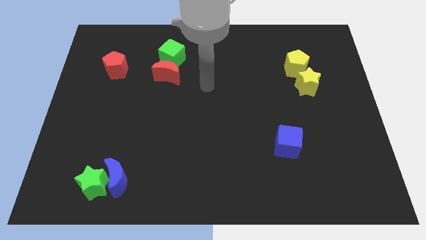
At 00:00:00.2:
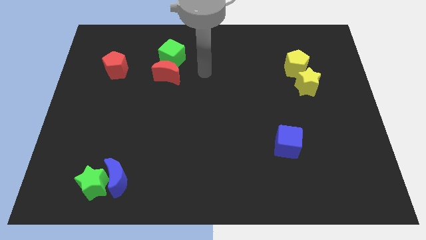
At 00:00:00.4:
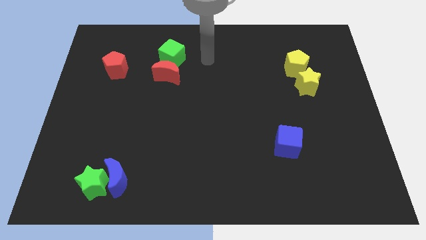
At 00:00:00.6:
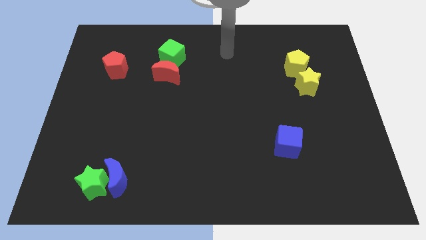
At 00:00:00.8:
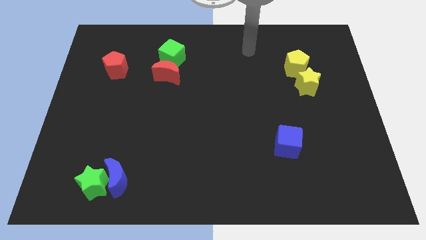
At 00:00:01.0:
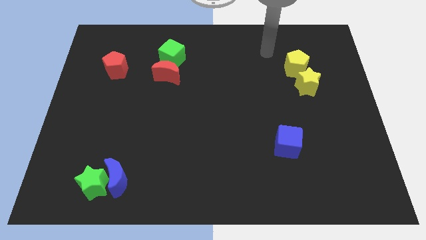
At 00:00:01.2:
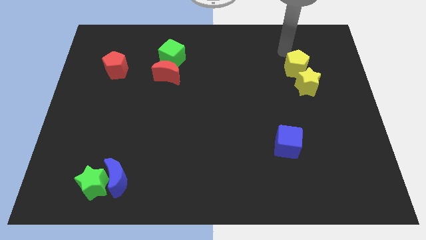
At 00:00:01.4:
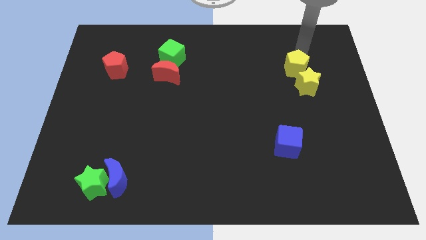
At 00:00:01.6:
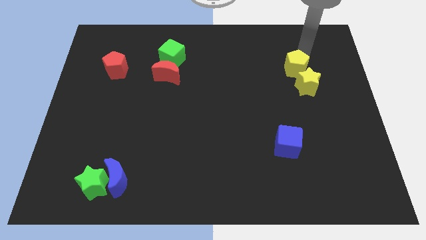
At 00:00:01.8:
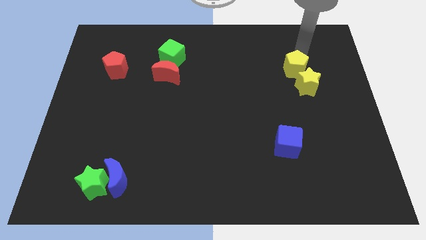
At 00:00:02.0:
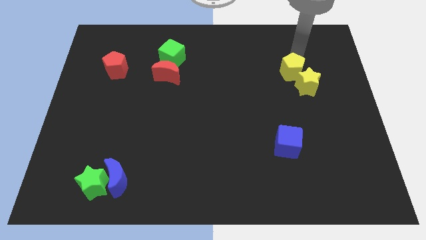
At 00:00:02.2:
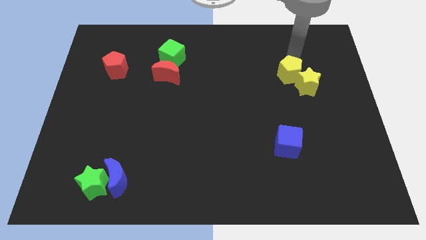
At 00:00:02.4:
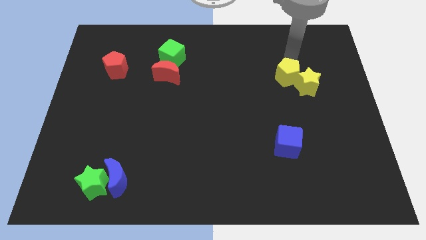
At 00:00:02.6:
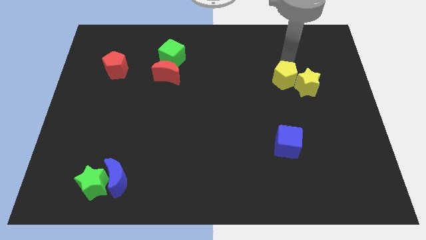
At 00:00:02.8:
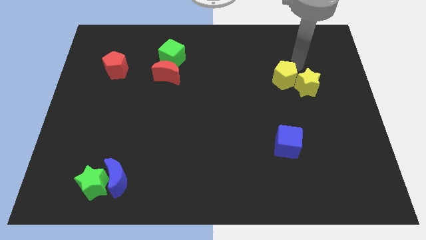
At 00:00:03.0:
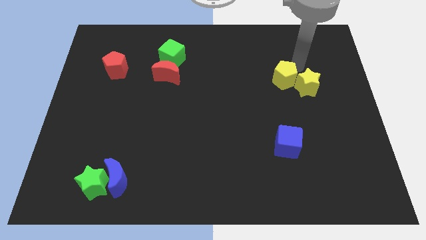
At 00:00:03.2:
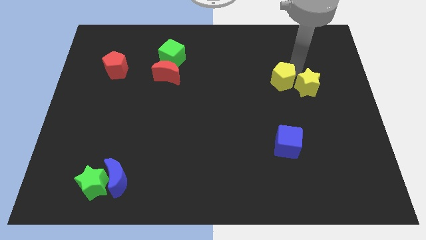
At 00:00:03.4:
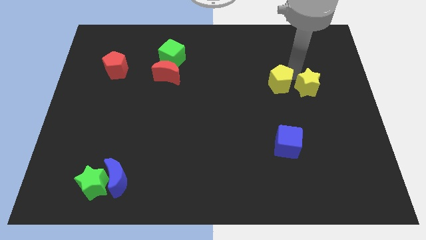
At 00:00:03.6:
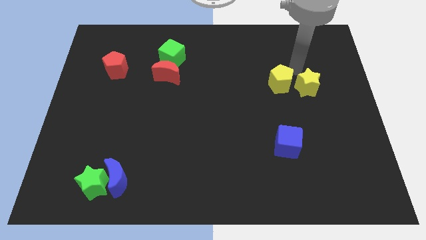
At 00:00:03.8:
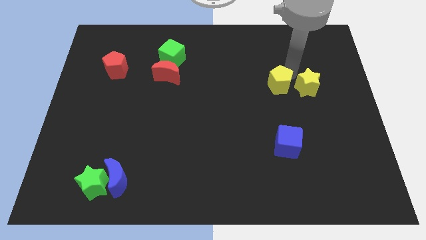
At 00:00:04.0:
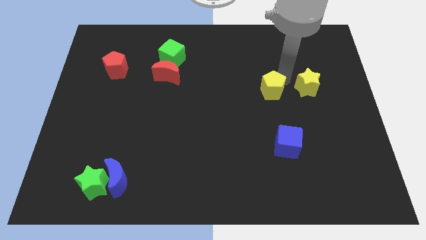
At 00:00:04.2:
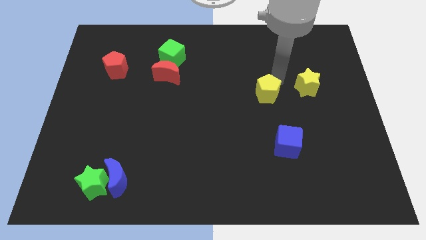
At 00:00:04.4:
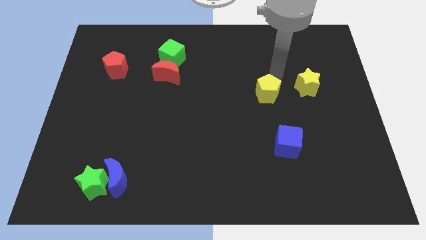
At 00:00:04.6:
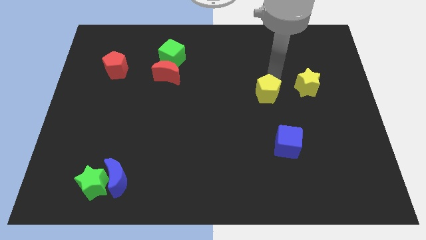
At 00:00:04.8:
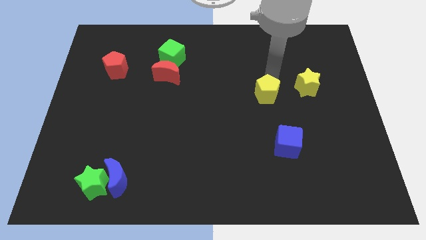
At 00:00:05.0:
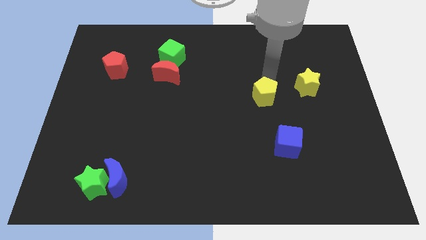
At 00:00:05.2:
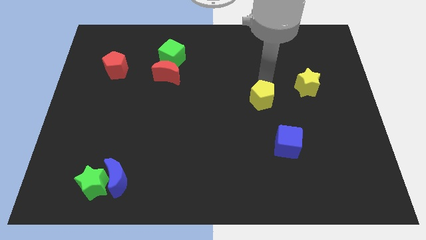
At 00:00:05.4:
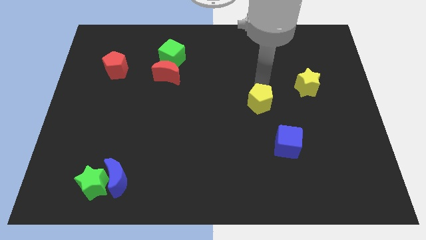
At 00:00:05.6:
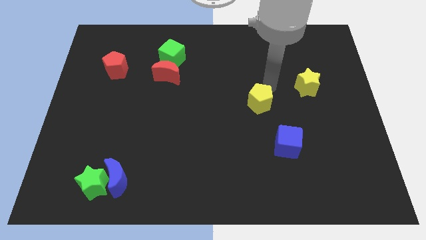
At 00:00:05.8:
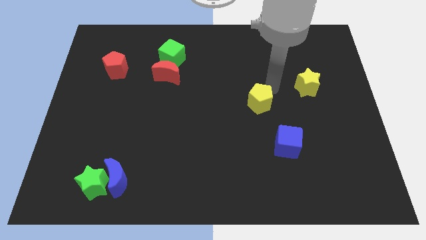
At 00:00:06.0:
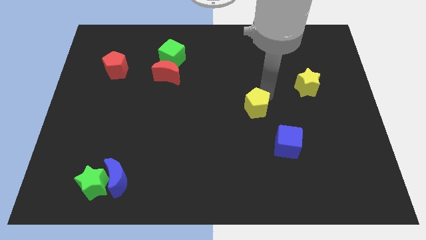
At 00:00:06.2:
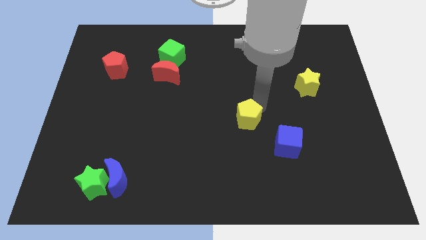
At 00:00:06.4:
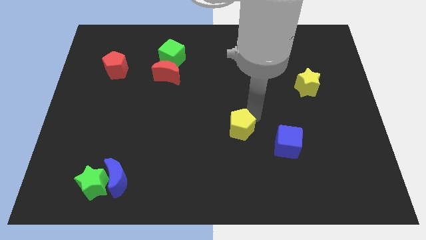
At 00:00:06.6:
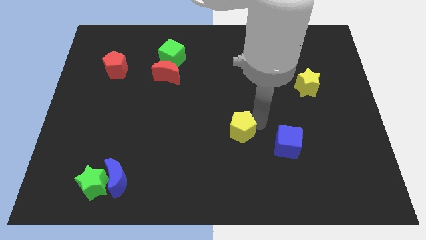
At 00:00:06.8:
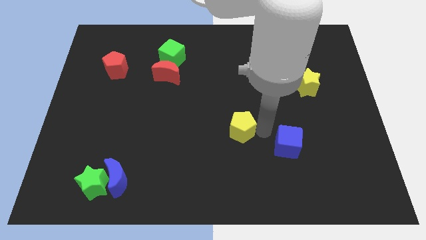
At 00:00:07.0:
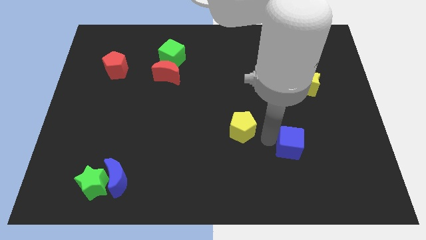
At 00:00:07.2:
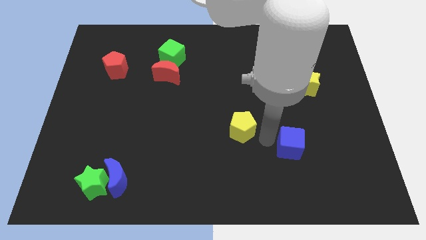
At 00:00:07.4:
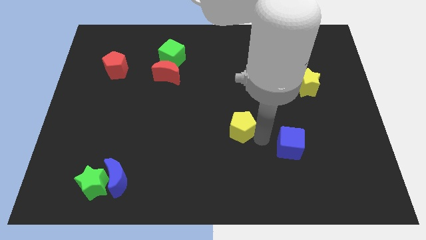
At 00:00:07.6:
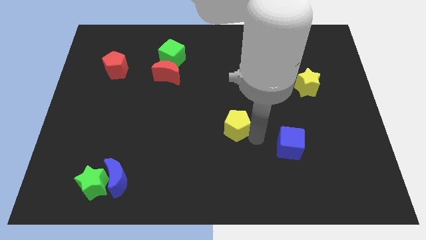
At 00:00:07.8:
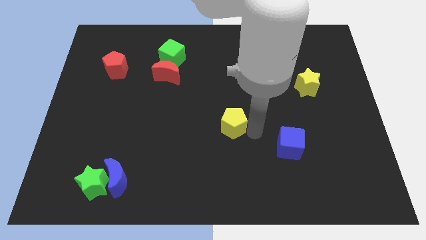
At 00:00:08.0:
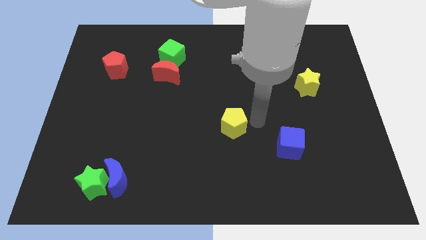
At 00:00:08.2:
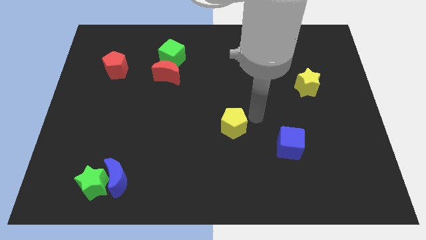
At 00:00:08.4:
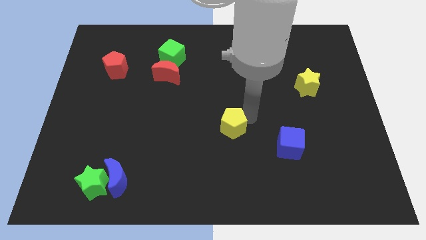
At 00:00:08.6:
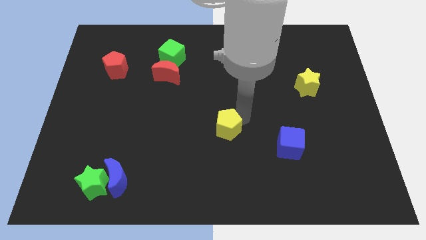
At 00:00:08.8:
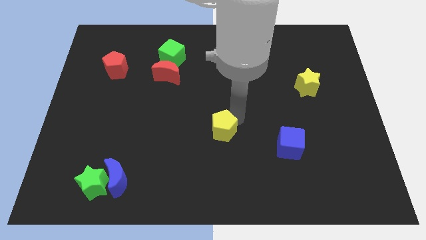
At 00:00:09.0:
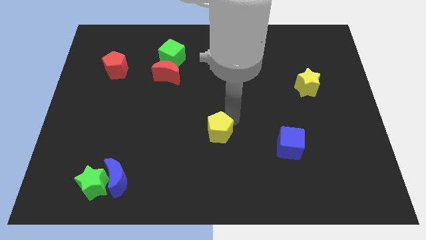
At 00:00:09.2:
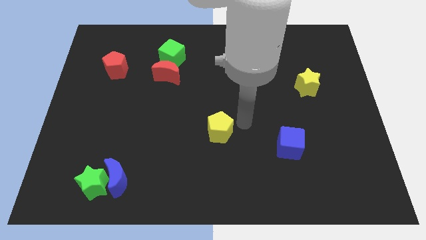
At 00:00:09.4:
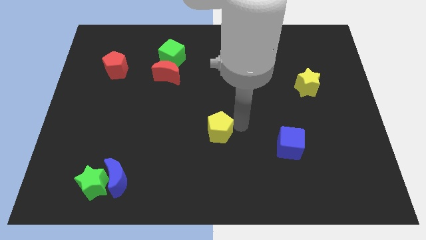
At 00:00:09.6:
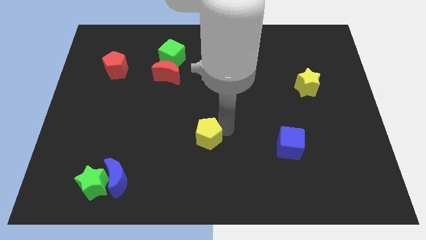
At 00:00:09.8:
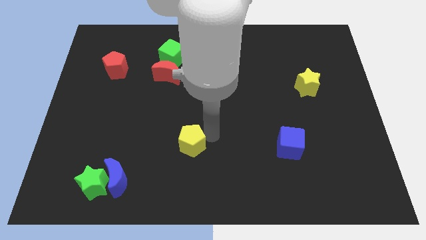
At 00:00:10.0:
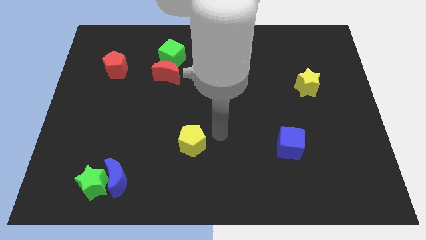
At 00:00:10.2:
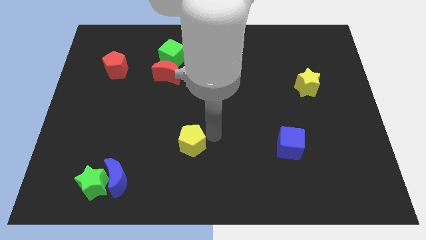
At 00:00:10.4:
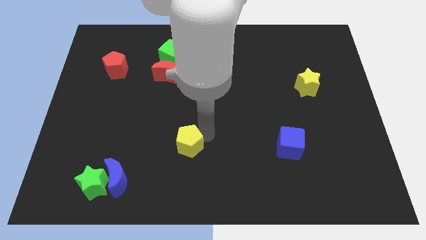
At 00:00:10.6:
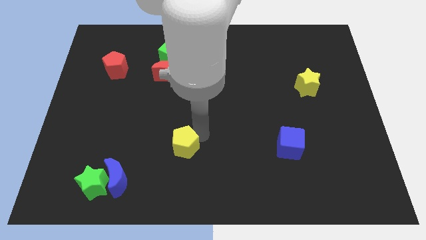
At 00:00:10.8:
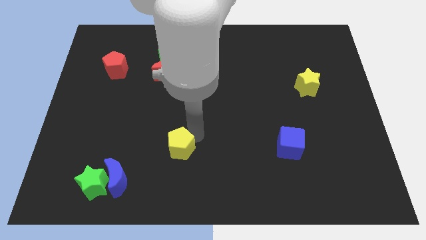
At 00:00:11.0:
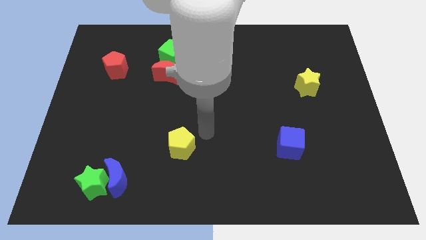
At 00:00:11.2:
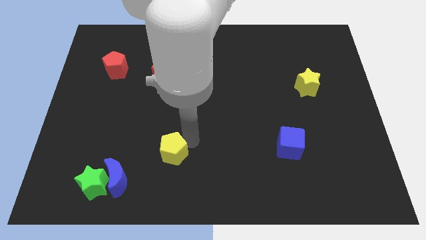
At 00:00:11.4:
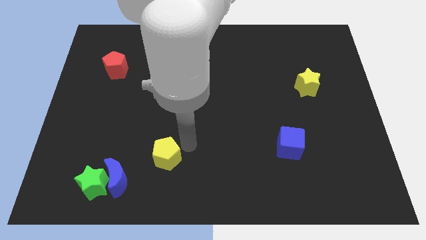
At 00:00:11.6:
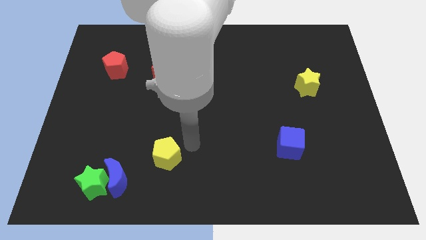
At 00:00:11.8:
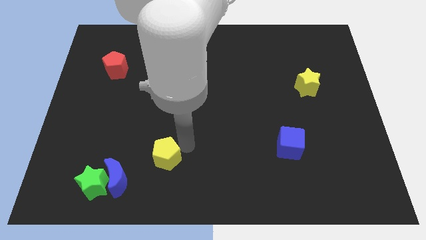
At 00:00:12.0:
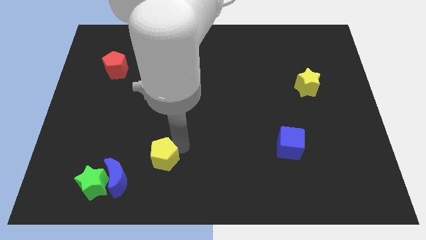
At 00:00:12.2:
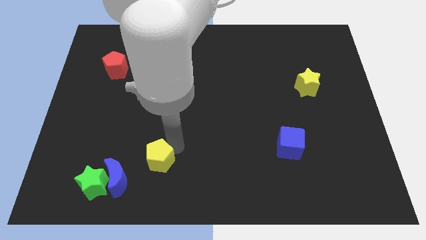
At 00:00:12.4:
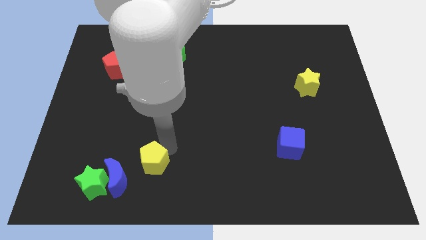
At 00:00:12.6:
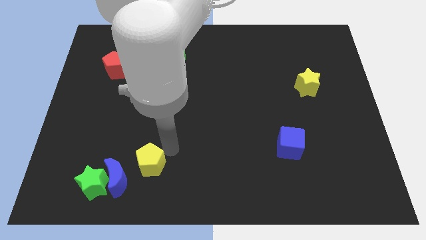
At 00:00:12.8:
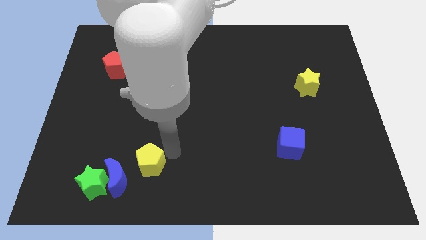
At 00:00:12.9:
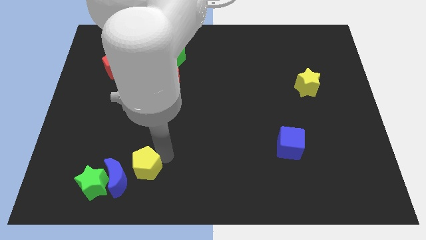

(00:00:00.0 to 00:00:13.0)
slide the yellow pentagon next to the blue moon
